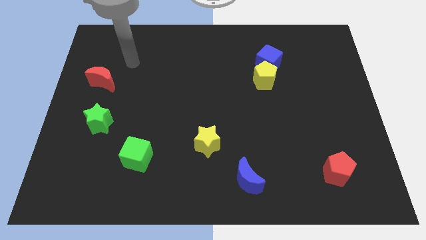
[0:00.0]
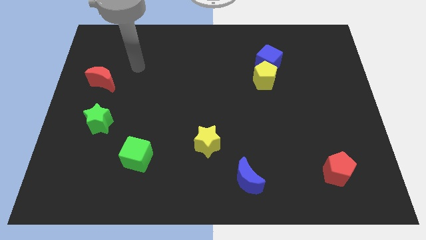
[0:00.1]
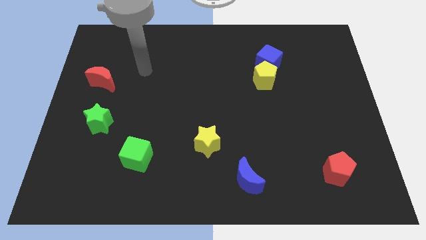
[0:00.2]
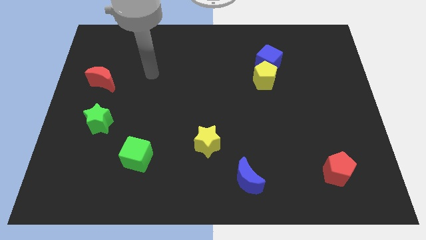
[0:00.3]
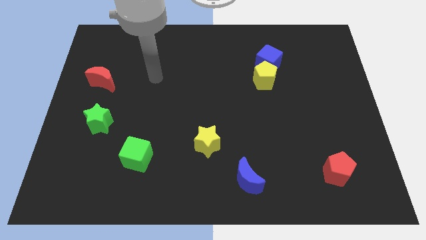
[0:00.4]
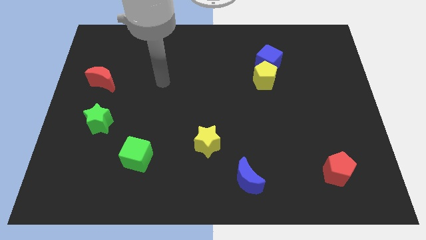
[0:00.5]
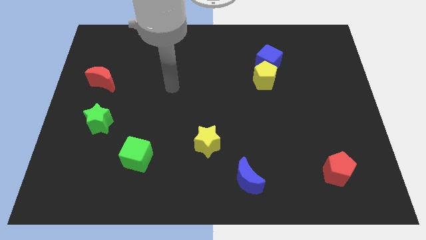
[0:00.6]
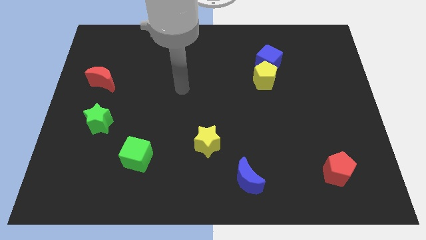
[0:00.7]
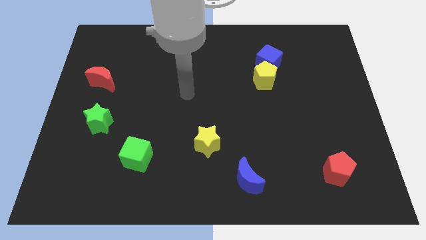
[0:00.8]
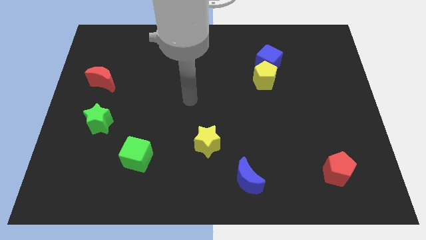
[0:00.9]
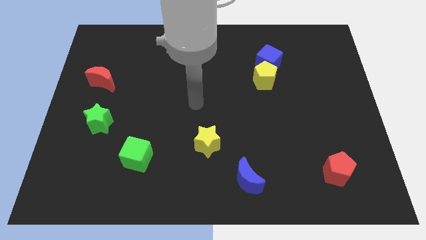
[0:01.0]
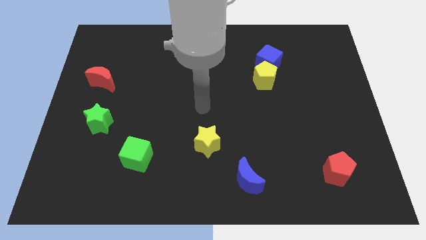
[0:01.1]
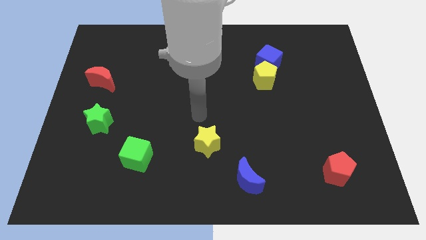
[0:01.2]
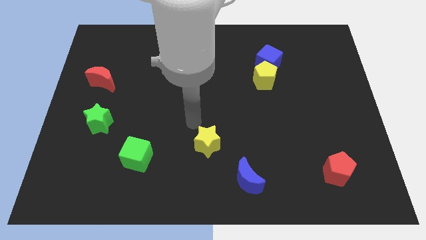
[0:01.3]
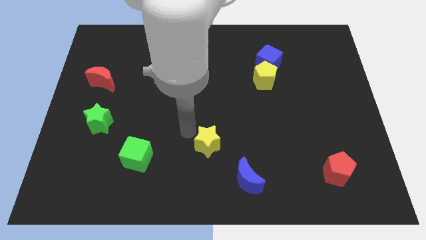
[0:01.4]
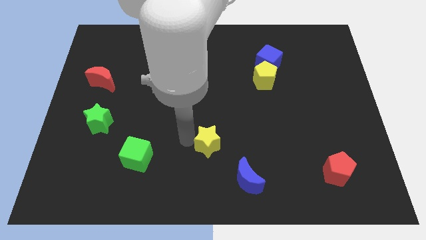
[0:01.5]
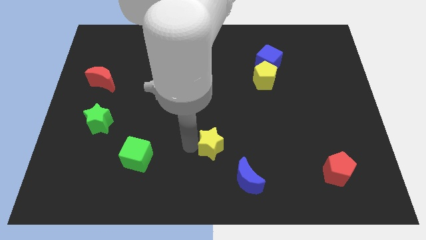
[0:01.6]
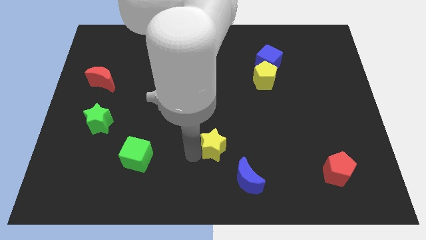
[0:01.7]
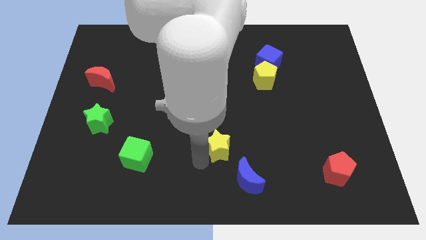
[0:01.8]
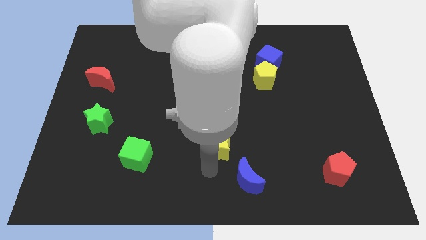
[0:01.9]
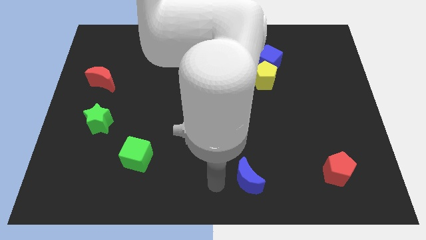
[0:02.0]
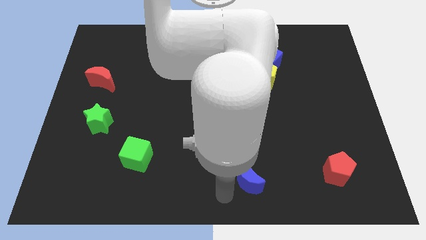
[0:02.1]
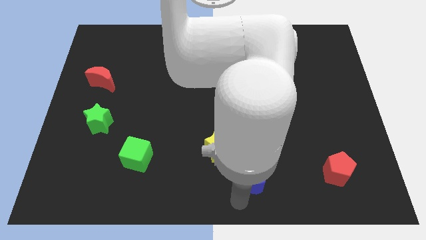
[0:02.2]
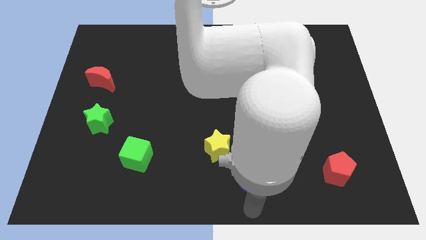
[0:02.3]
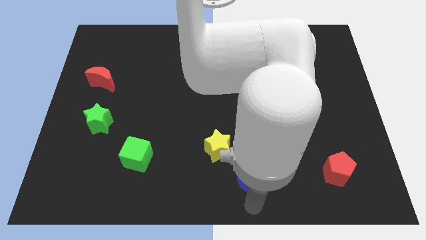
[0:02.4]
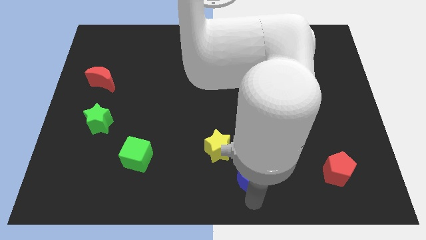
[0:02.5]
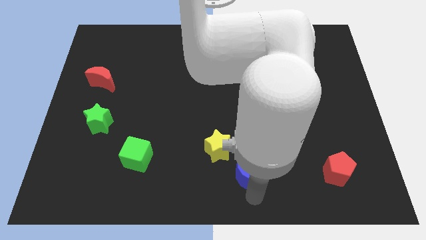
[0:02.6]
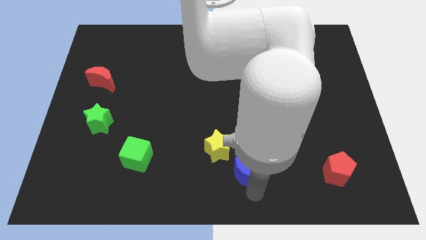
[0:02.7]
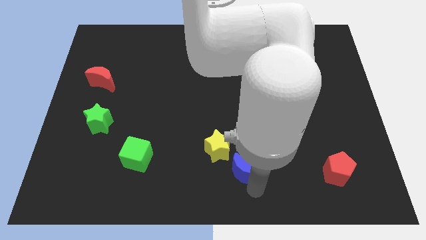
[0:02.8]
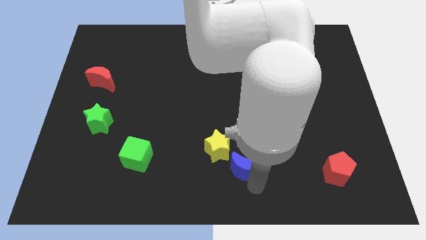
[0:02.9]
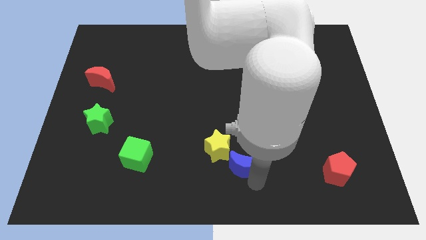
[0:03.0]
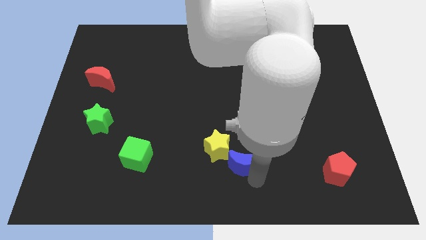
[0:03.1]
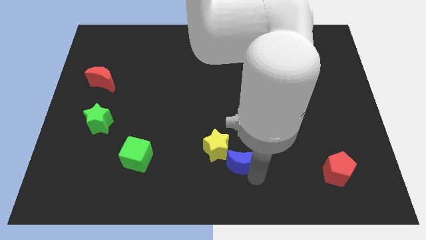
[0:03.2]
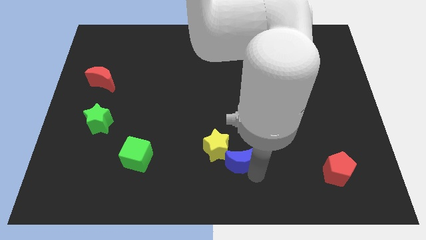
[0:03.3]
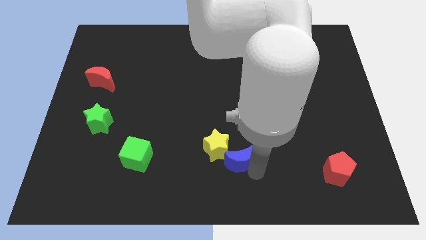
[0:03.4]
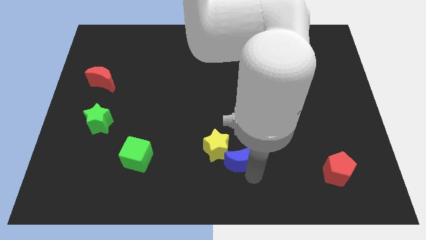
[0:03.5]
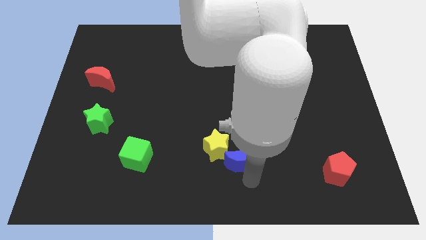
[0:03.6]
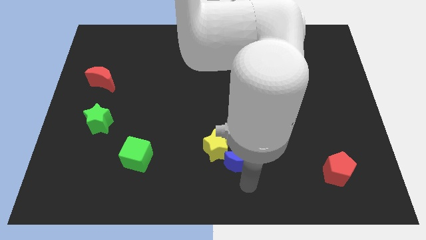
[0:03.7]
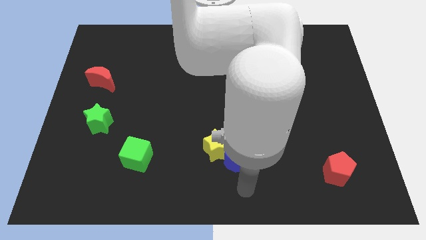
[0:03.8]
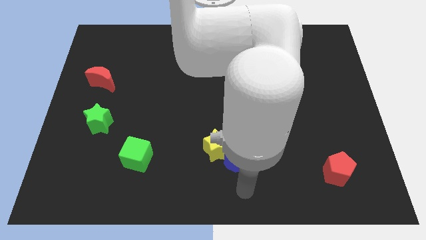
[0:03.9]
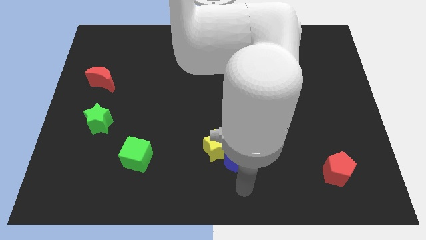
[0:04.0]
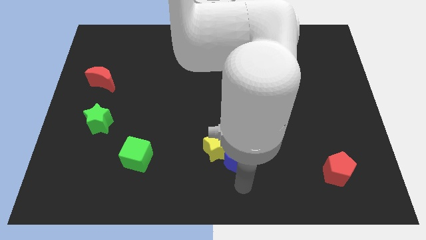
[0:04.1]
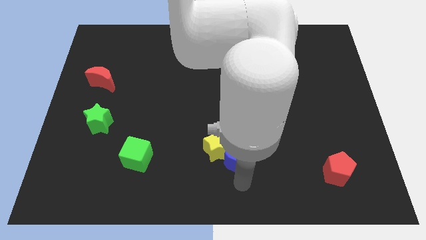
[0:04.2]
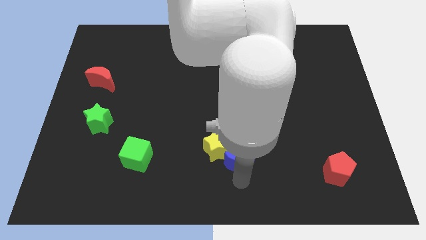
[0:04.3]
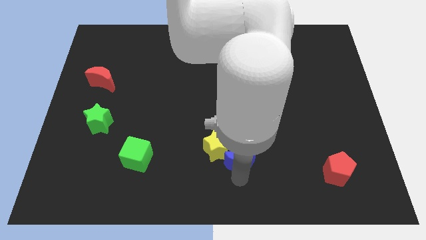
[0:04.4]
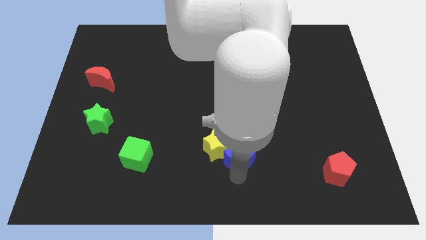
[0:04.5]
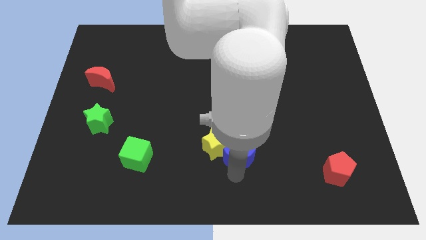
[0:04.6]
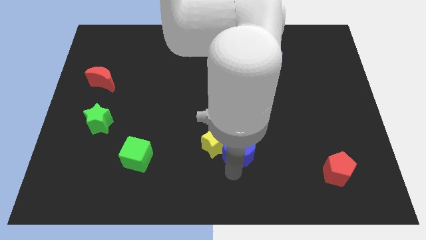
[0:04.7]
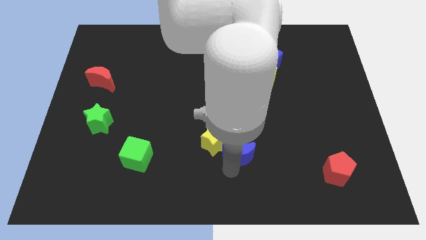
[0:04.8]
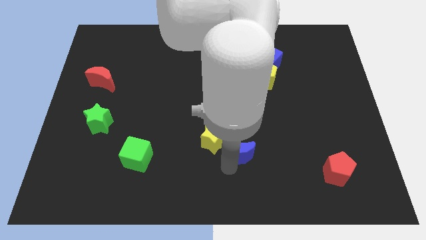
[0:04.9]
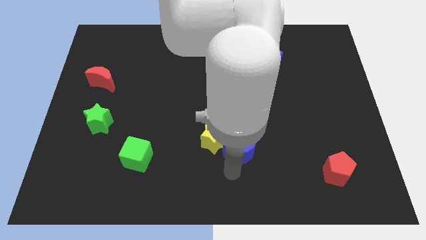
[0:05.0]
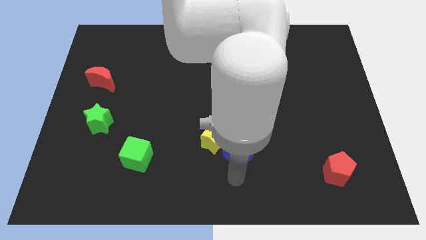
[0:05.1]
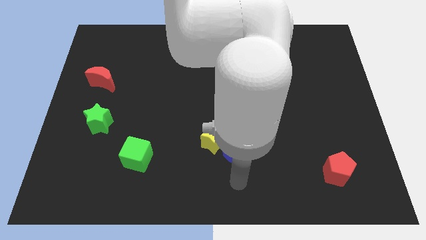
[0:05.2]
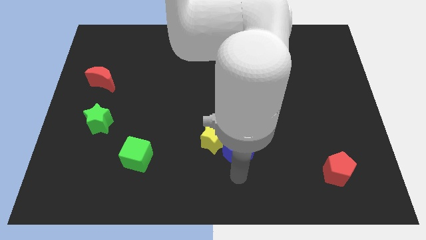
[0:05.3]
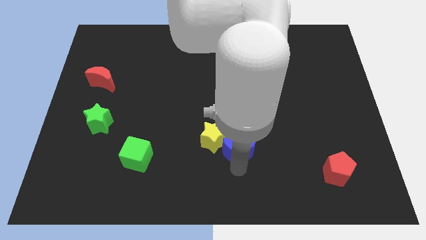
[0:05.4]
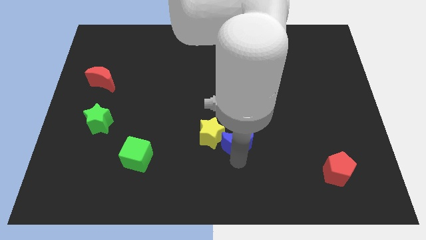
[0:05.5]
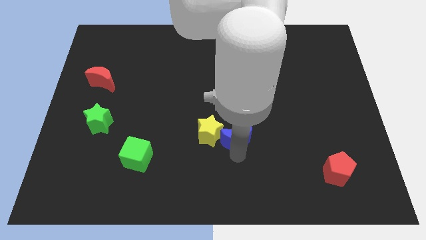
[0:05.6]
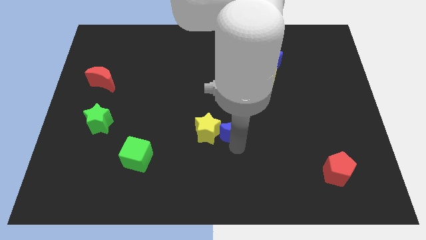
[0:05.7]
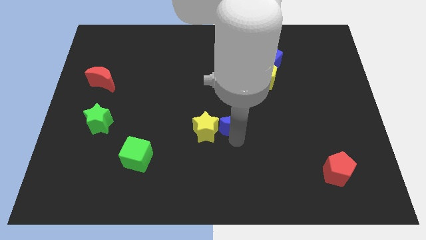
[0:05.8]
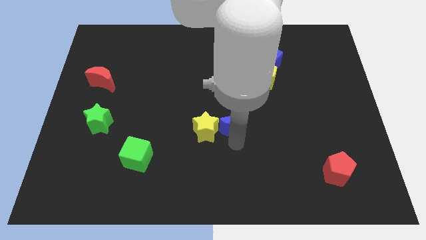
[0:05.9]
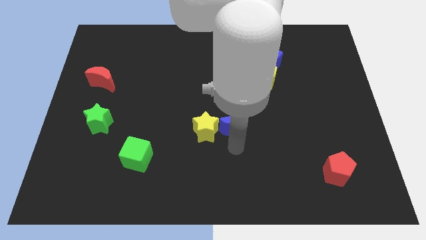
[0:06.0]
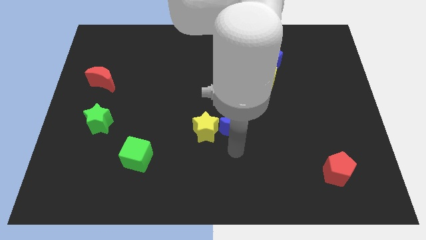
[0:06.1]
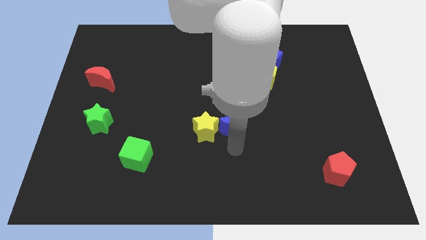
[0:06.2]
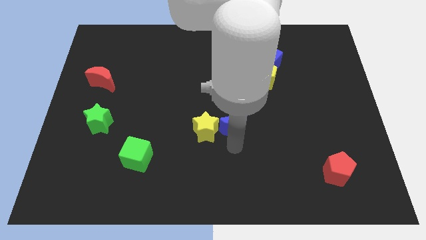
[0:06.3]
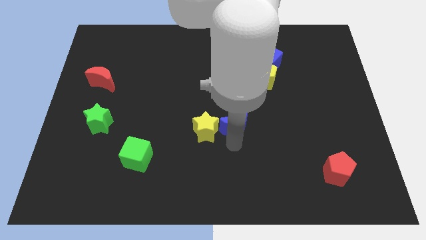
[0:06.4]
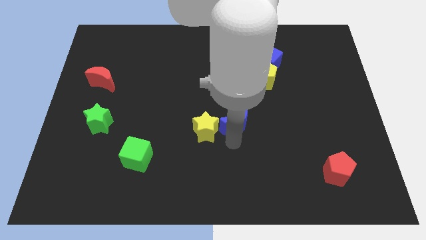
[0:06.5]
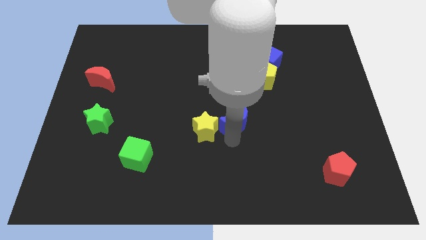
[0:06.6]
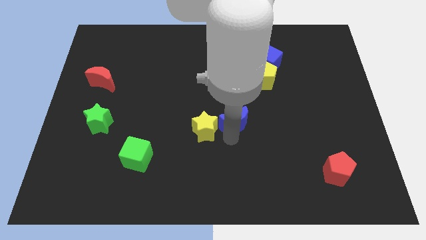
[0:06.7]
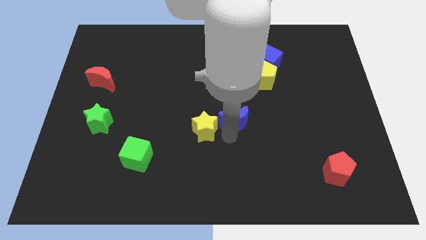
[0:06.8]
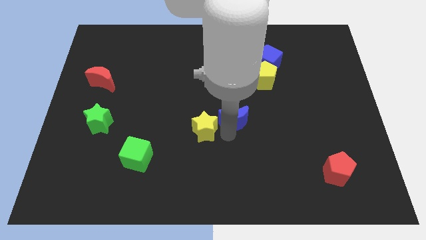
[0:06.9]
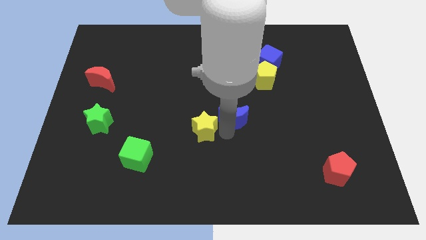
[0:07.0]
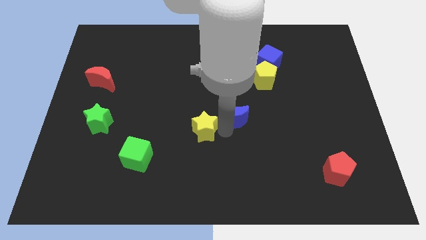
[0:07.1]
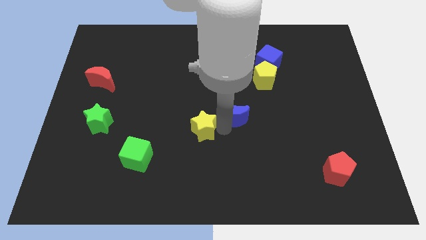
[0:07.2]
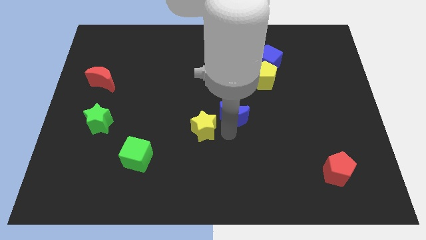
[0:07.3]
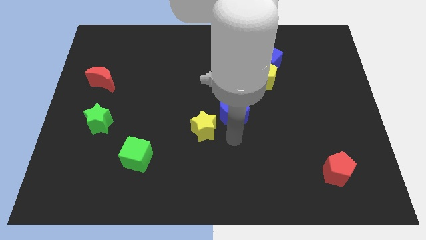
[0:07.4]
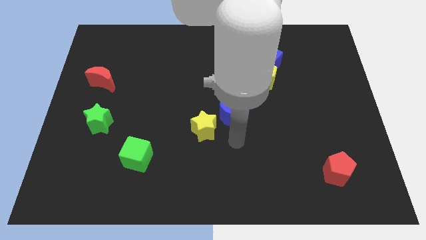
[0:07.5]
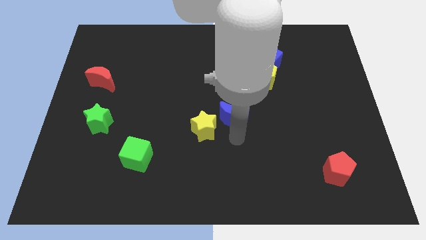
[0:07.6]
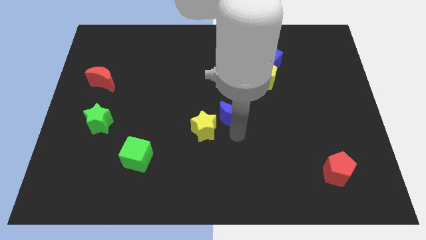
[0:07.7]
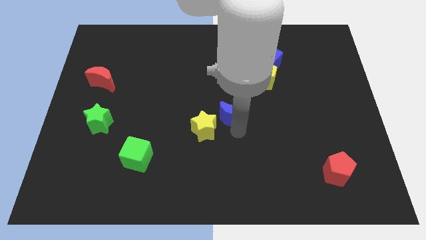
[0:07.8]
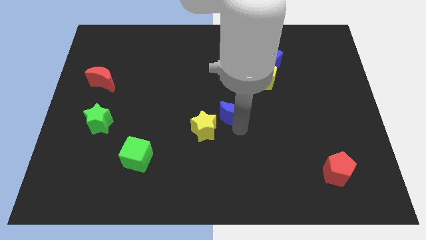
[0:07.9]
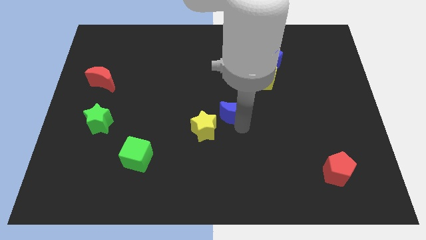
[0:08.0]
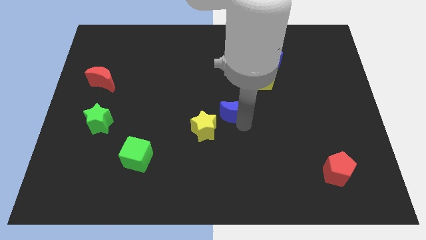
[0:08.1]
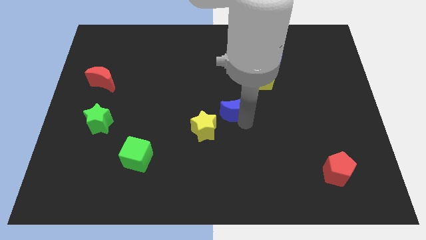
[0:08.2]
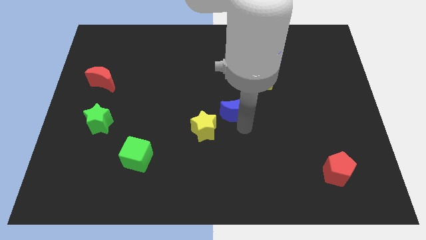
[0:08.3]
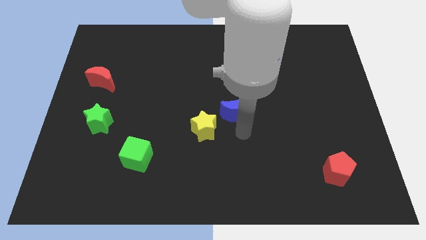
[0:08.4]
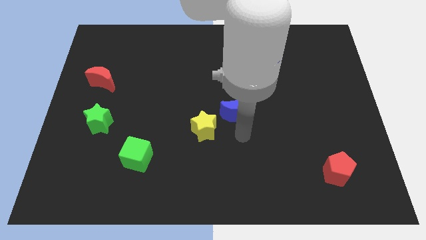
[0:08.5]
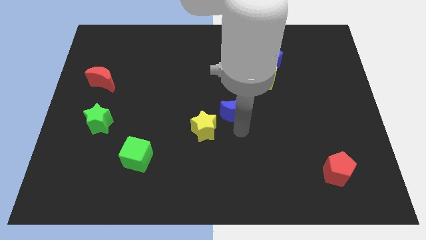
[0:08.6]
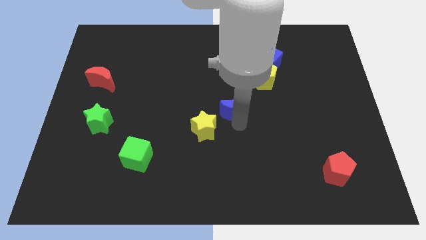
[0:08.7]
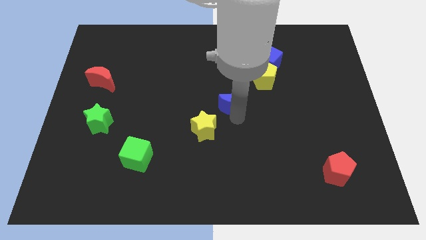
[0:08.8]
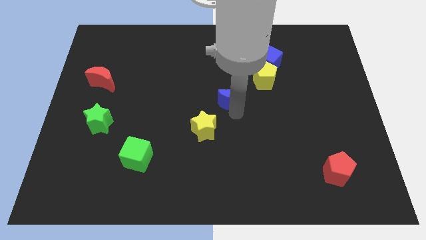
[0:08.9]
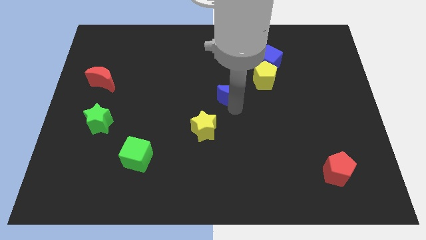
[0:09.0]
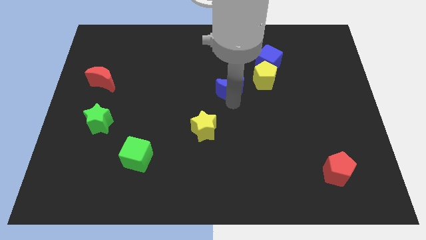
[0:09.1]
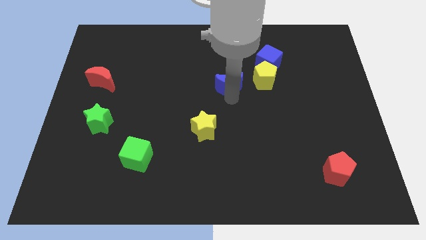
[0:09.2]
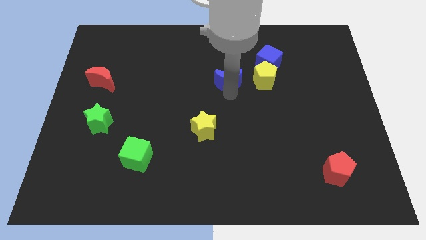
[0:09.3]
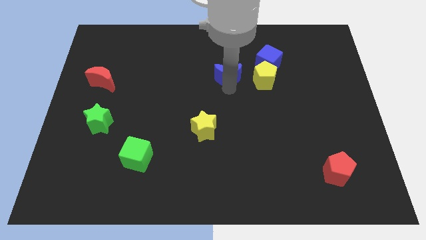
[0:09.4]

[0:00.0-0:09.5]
move the blue moon to the left side of the blue cube
